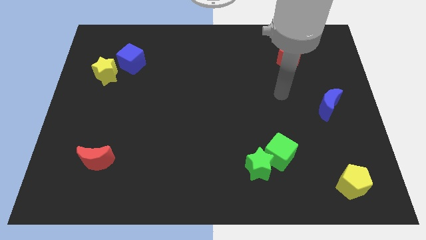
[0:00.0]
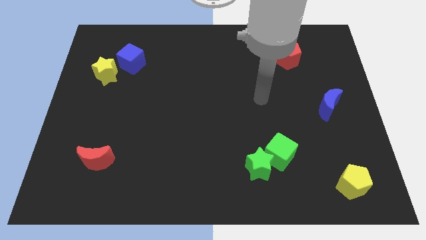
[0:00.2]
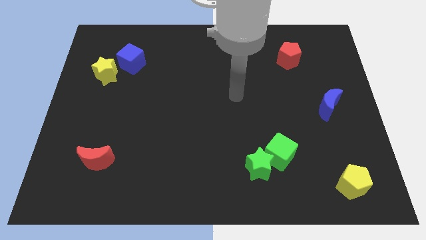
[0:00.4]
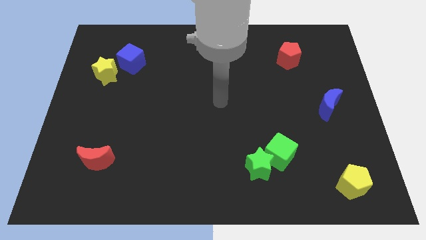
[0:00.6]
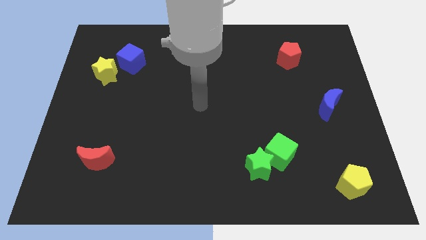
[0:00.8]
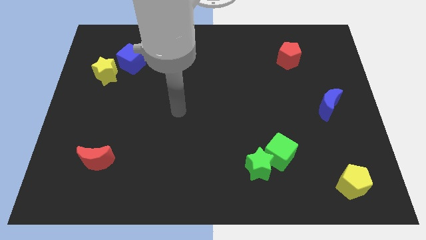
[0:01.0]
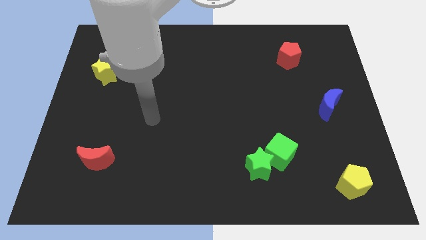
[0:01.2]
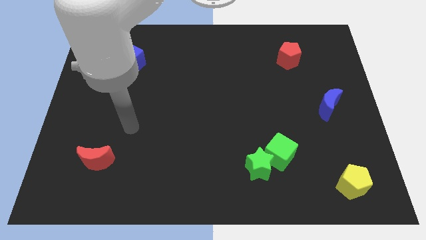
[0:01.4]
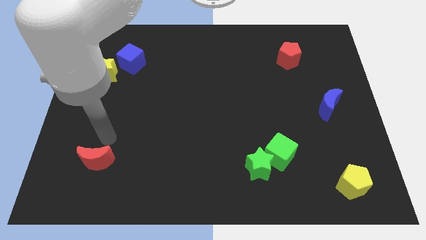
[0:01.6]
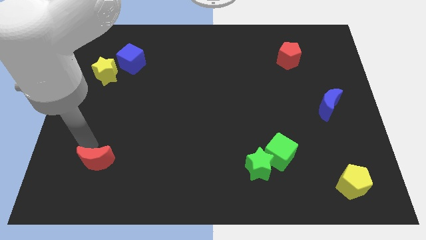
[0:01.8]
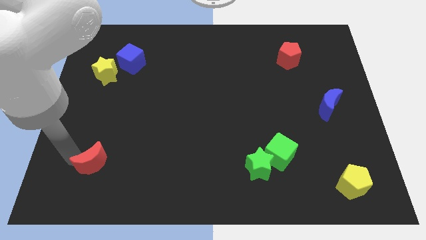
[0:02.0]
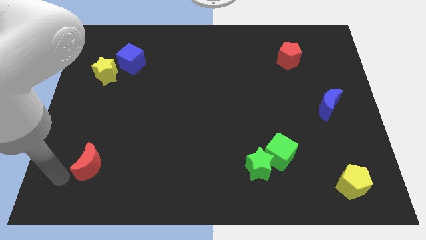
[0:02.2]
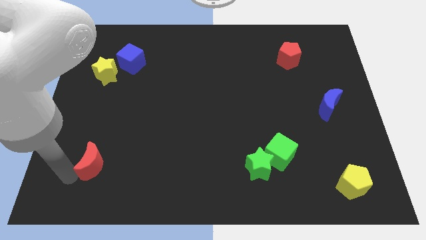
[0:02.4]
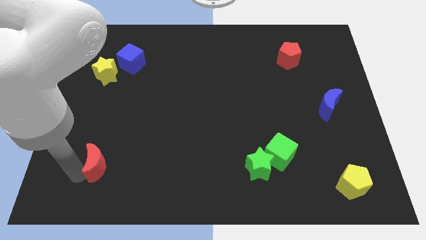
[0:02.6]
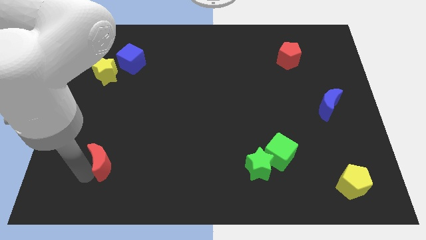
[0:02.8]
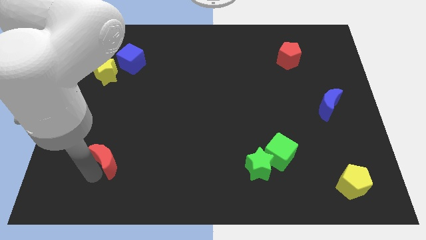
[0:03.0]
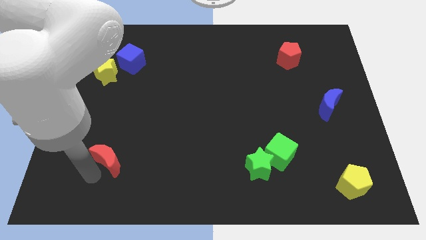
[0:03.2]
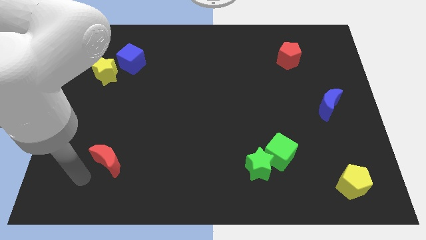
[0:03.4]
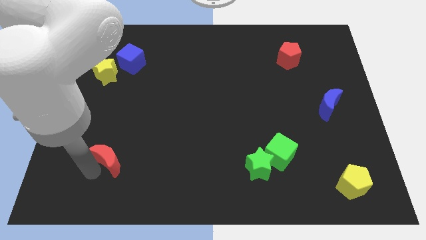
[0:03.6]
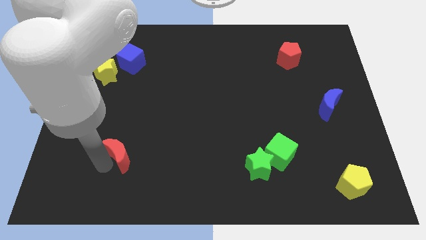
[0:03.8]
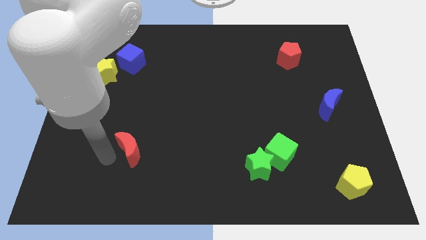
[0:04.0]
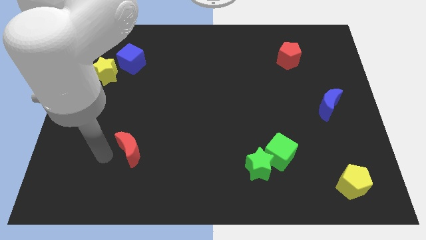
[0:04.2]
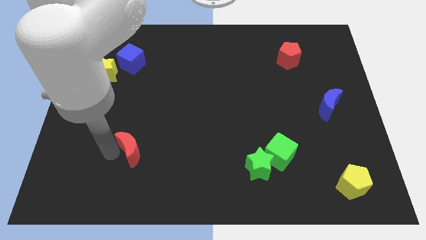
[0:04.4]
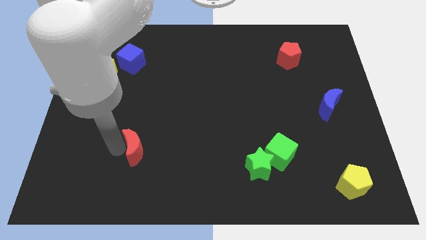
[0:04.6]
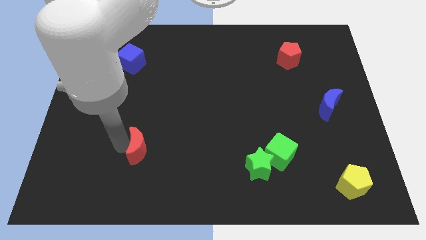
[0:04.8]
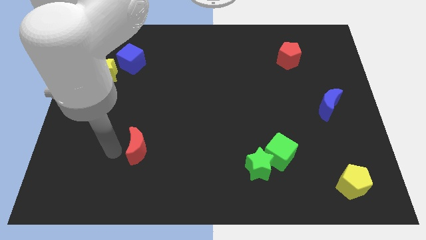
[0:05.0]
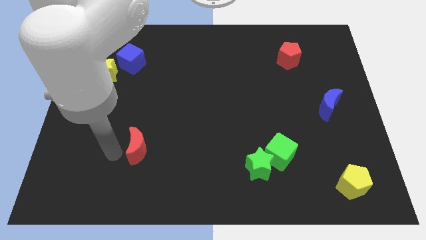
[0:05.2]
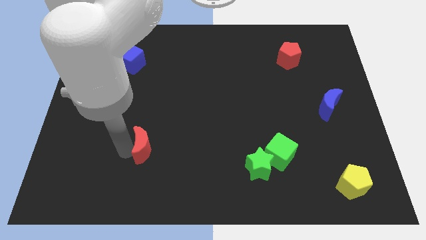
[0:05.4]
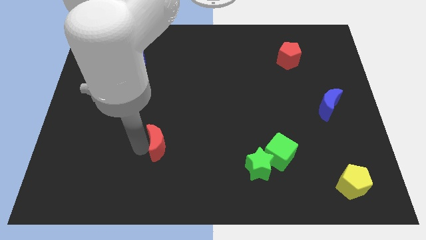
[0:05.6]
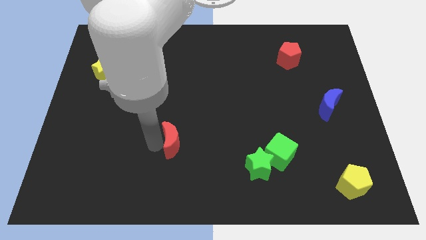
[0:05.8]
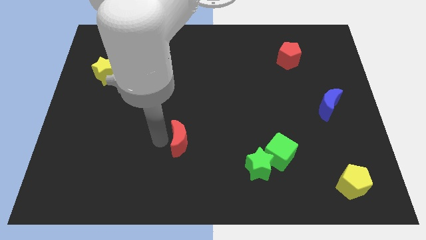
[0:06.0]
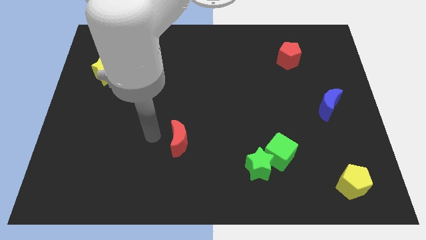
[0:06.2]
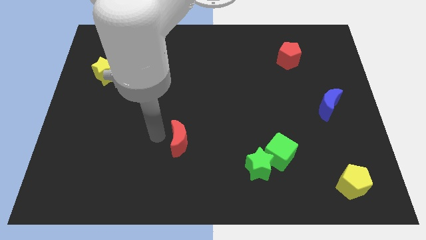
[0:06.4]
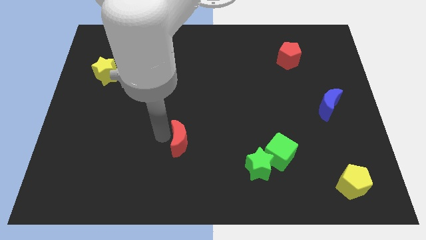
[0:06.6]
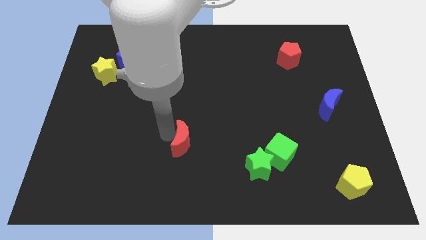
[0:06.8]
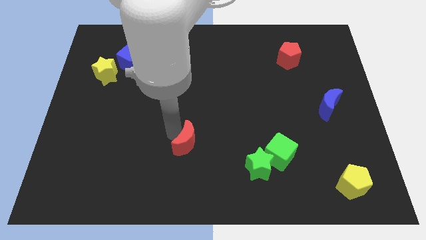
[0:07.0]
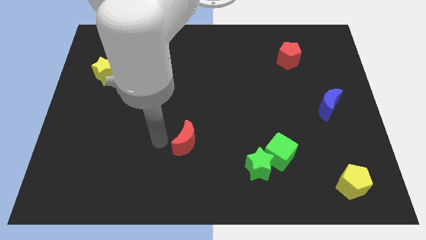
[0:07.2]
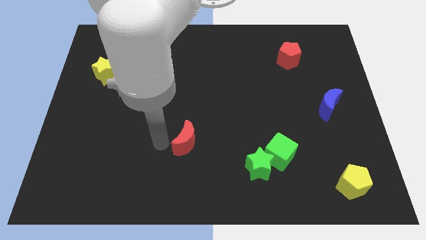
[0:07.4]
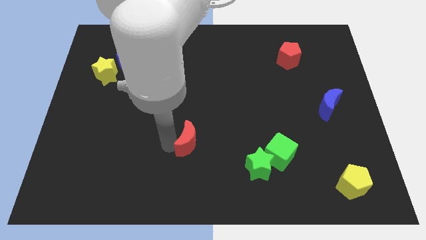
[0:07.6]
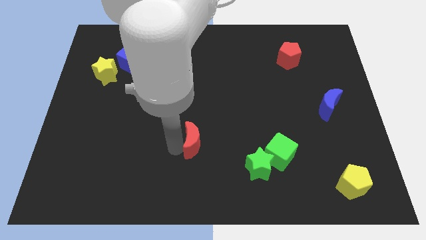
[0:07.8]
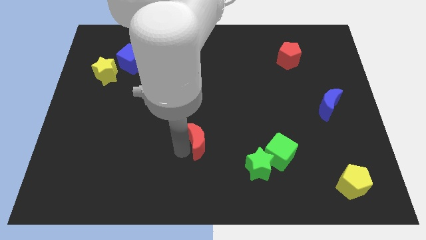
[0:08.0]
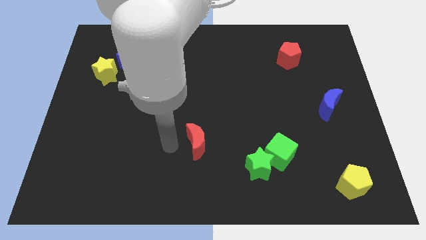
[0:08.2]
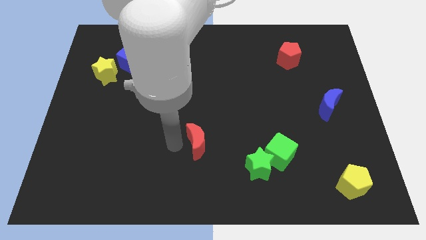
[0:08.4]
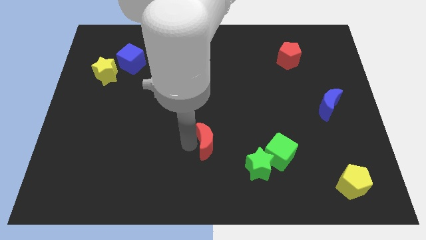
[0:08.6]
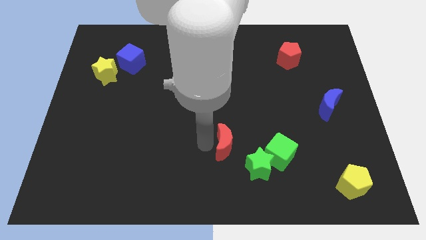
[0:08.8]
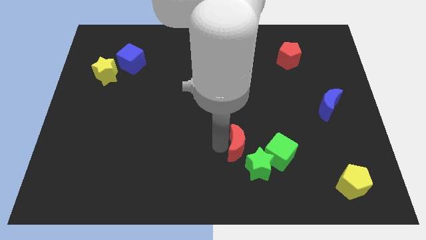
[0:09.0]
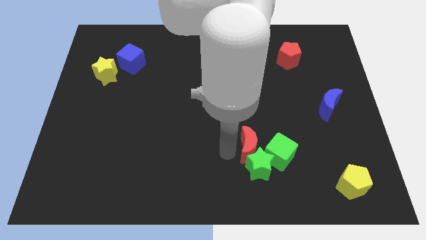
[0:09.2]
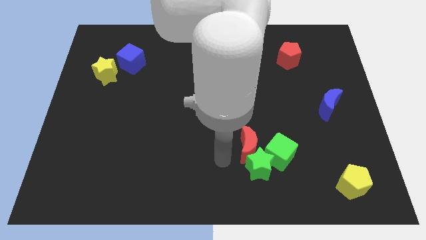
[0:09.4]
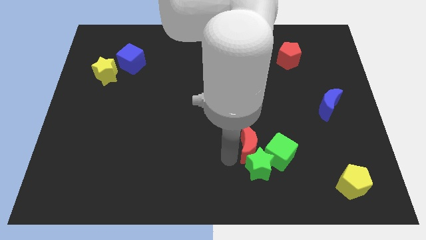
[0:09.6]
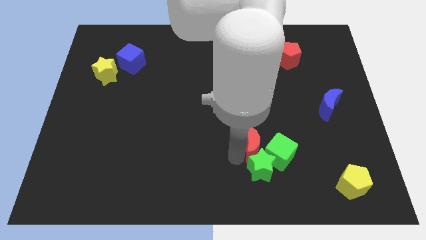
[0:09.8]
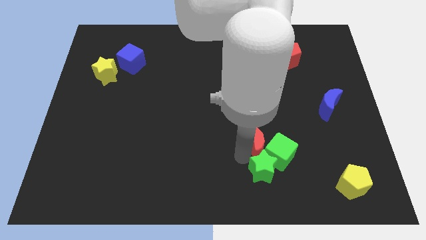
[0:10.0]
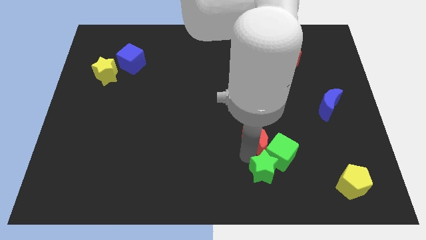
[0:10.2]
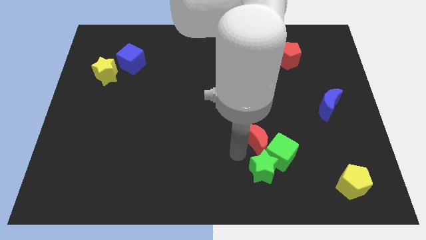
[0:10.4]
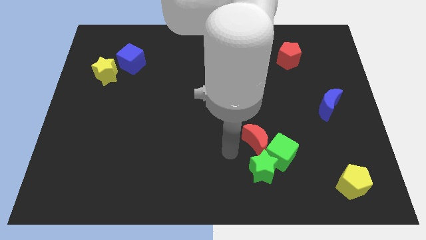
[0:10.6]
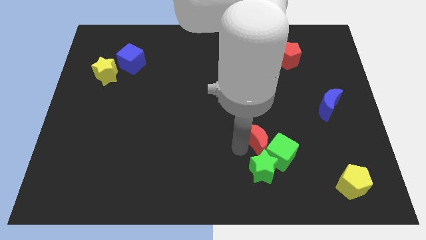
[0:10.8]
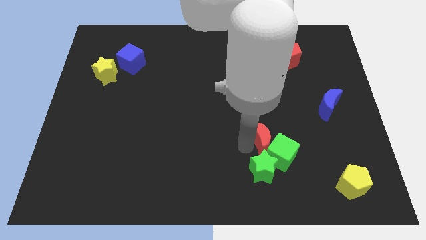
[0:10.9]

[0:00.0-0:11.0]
push the red moon diagonally up and to the right of the green star

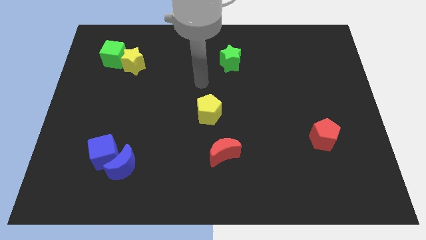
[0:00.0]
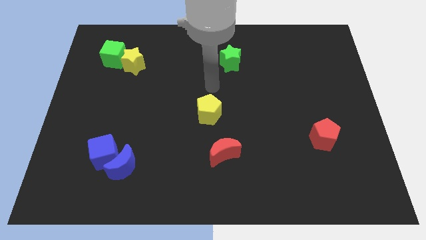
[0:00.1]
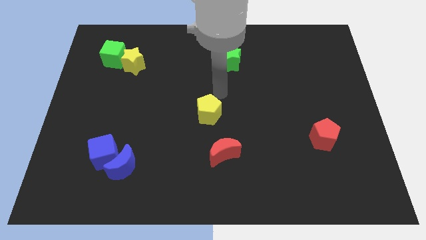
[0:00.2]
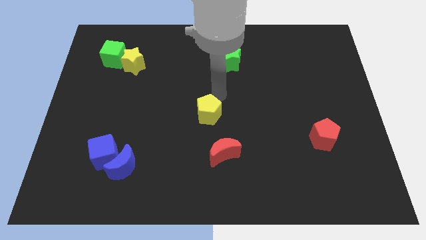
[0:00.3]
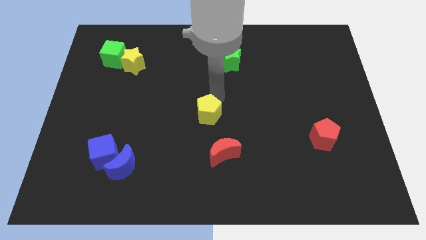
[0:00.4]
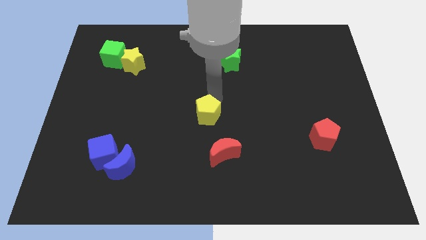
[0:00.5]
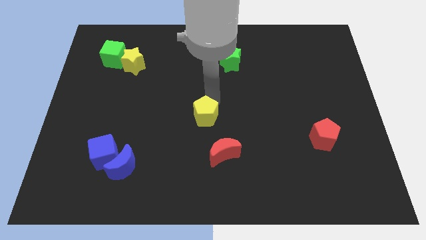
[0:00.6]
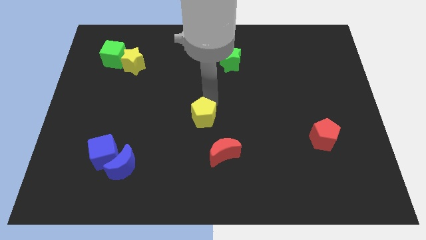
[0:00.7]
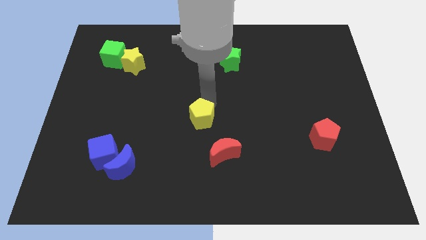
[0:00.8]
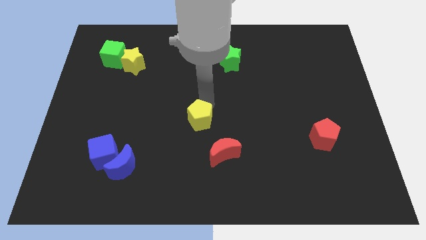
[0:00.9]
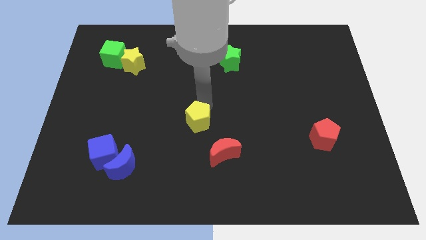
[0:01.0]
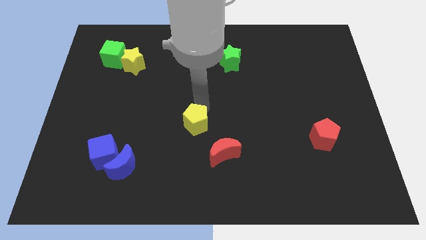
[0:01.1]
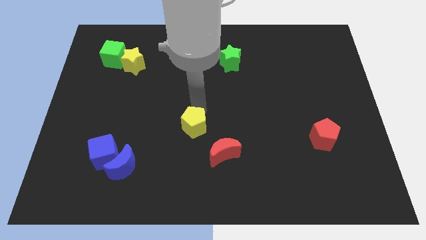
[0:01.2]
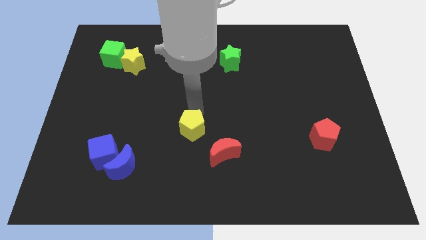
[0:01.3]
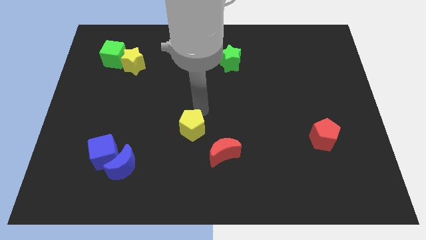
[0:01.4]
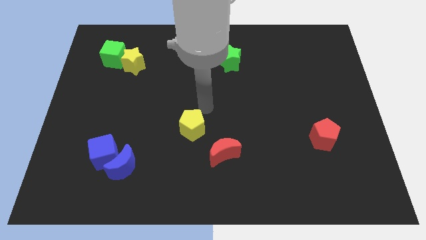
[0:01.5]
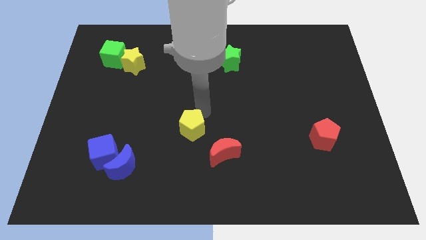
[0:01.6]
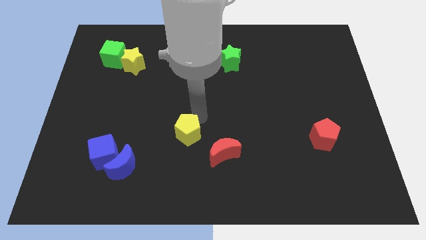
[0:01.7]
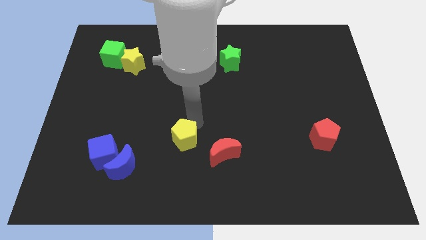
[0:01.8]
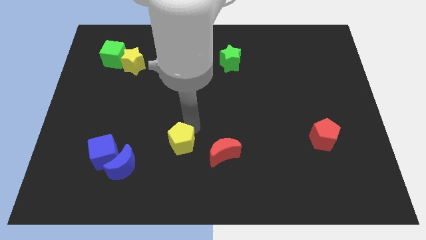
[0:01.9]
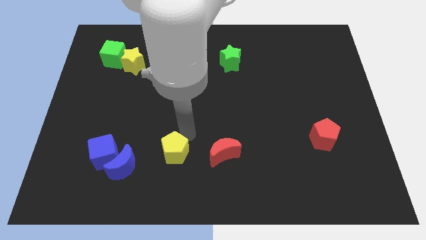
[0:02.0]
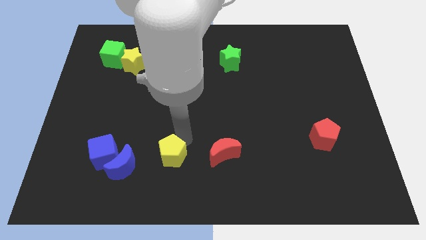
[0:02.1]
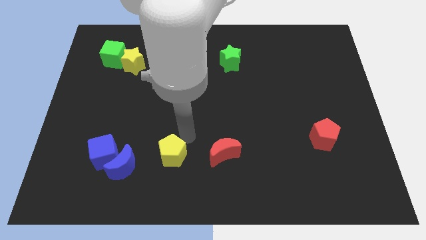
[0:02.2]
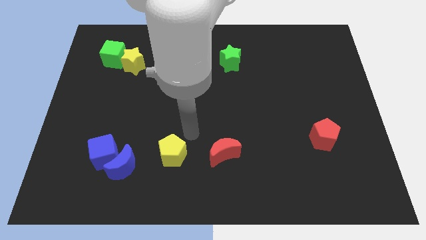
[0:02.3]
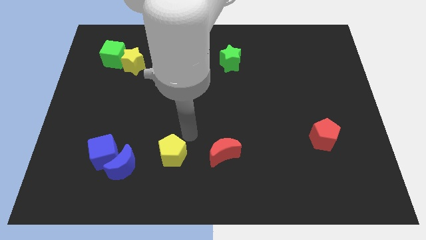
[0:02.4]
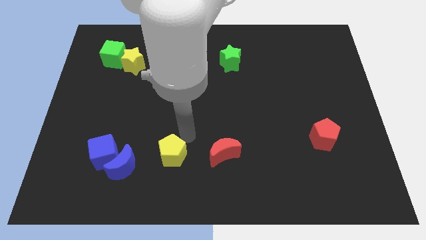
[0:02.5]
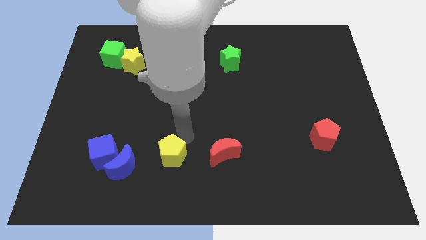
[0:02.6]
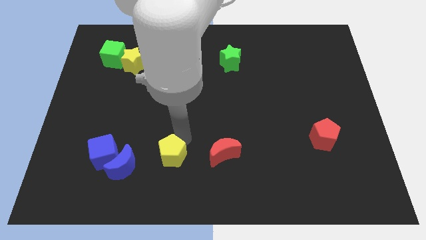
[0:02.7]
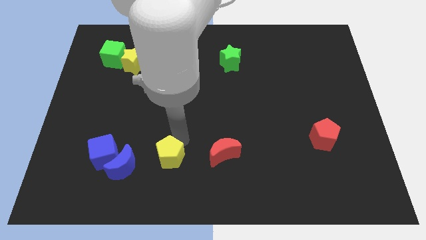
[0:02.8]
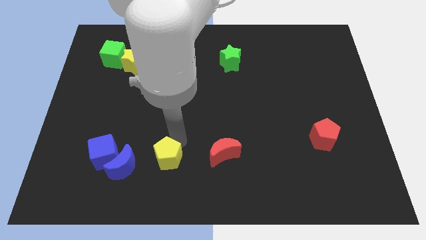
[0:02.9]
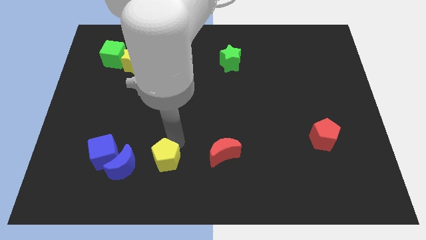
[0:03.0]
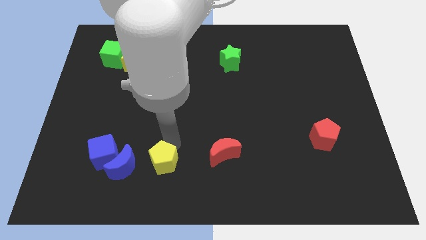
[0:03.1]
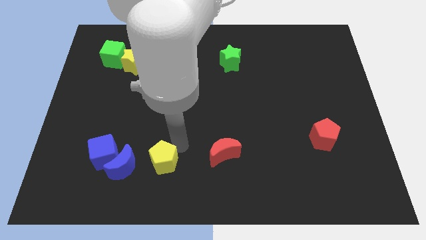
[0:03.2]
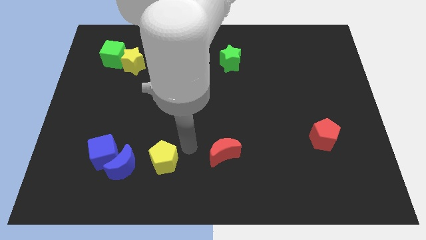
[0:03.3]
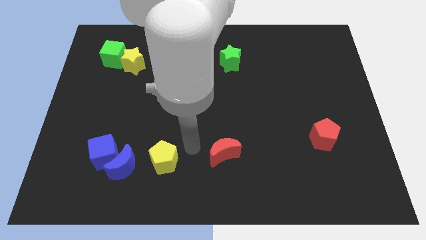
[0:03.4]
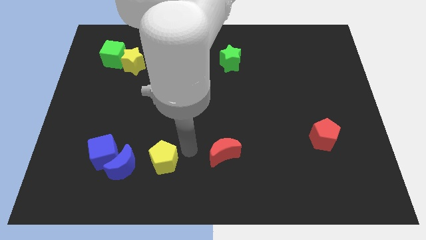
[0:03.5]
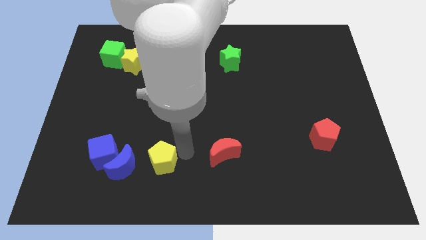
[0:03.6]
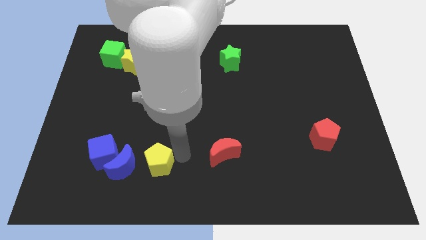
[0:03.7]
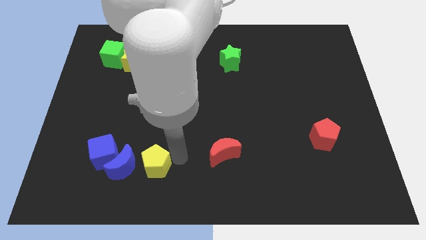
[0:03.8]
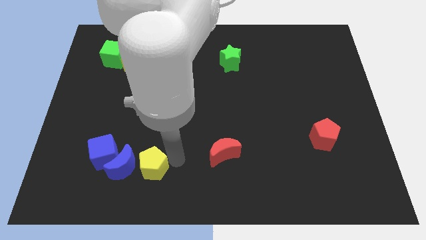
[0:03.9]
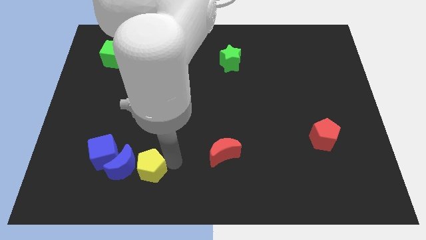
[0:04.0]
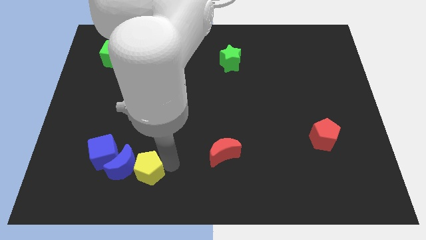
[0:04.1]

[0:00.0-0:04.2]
slide the yellow pentagon to the bottom right of the blue cube
